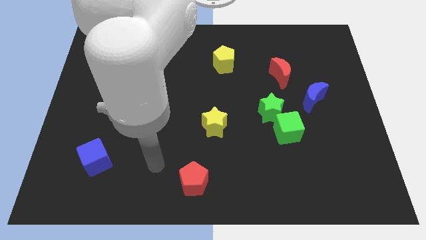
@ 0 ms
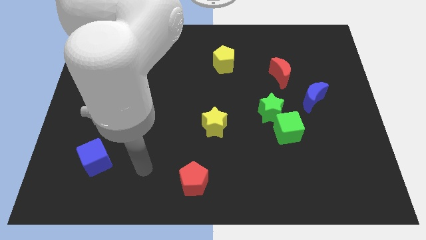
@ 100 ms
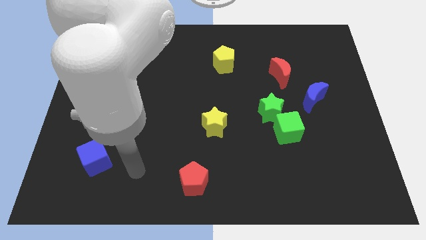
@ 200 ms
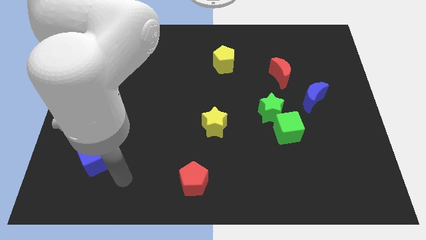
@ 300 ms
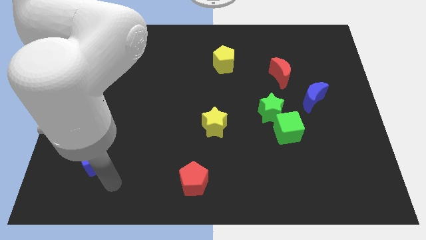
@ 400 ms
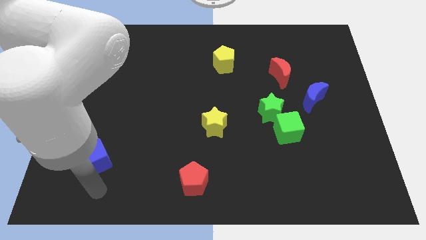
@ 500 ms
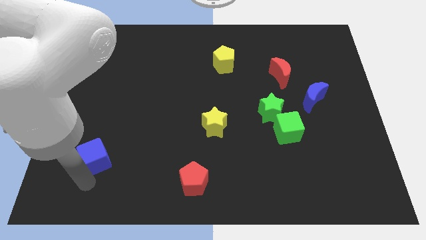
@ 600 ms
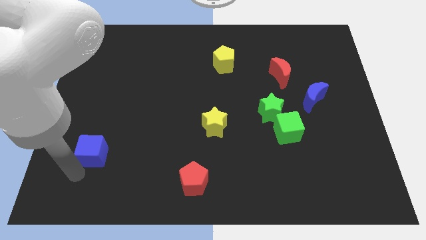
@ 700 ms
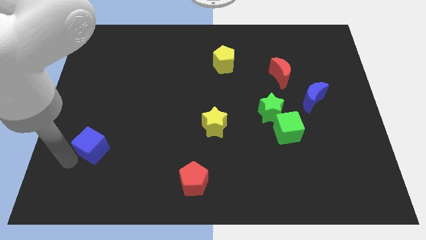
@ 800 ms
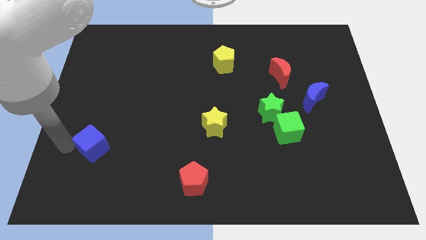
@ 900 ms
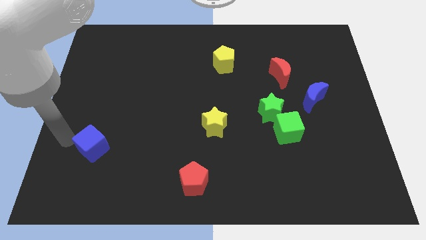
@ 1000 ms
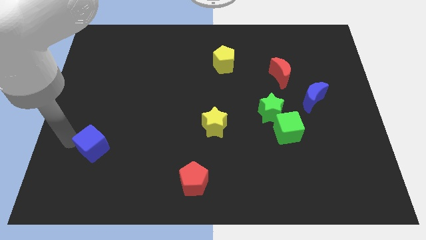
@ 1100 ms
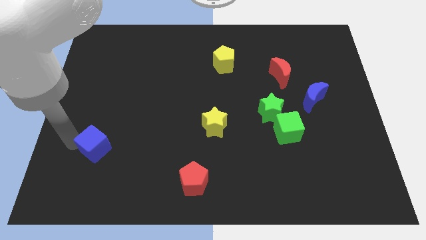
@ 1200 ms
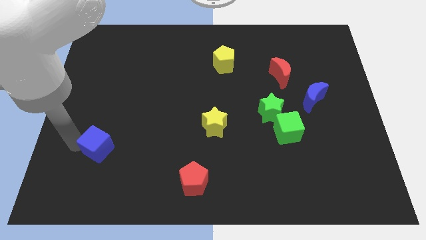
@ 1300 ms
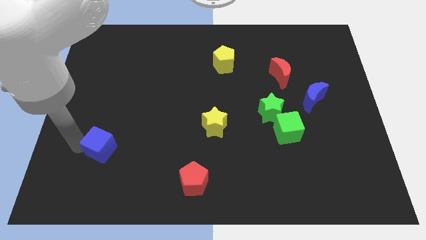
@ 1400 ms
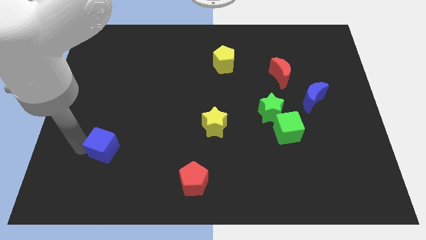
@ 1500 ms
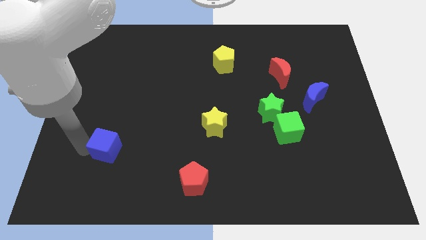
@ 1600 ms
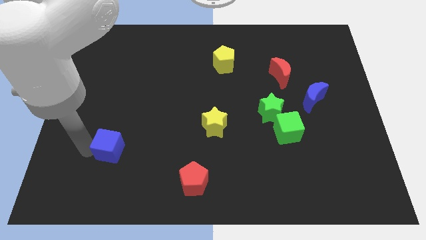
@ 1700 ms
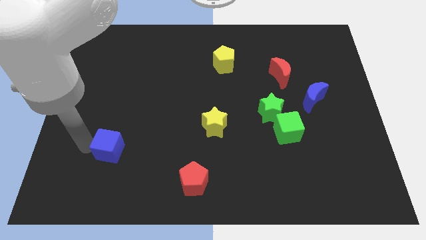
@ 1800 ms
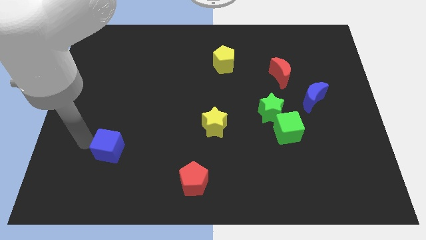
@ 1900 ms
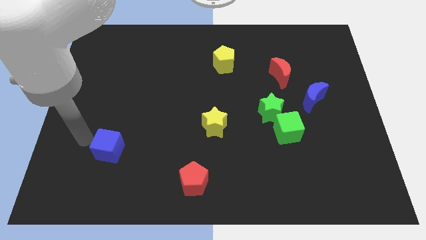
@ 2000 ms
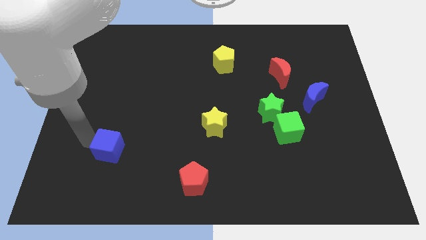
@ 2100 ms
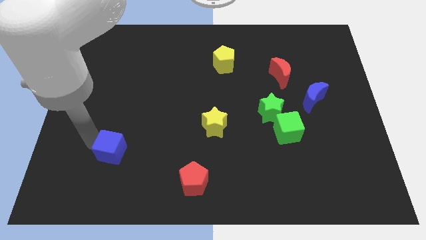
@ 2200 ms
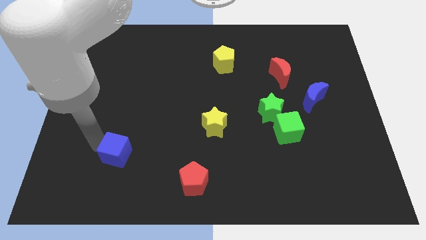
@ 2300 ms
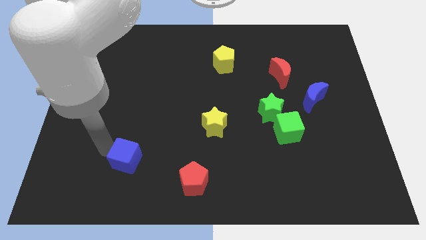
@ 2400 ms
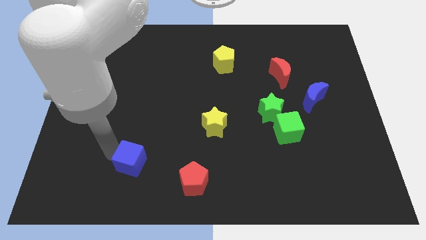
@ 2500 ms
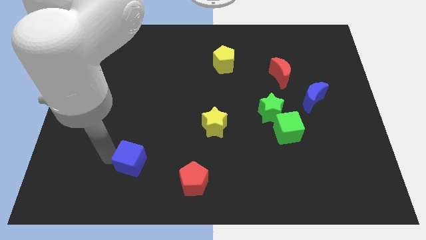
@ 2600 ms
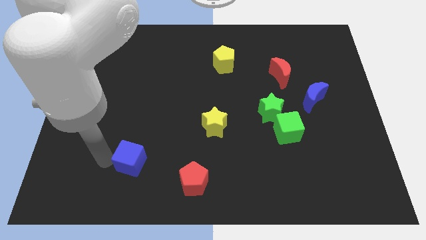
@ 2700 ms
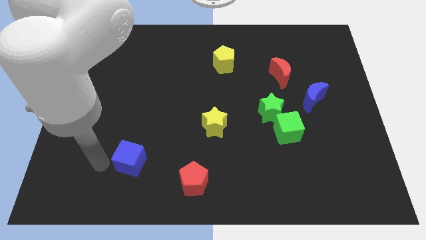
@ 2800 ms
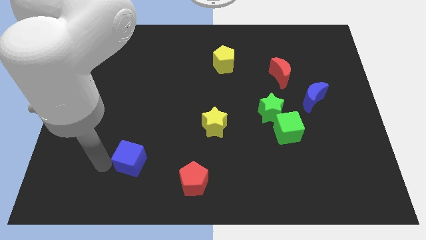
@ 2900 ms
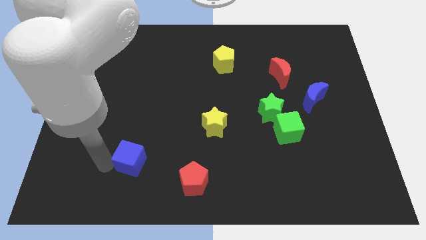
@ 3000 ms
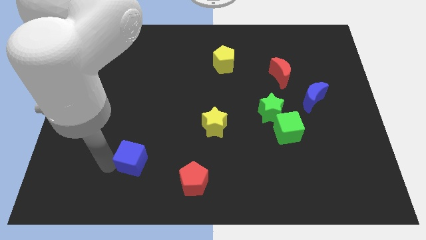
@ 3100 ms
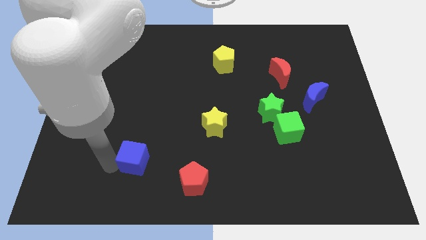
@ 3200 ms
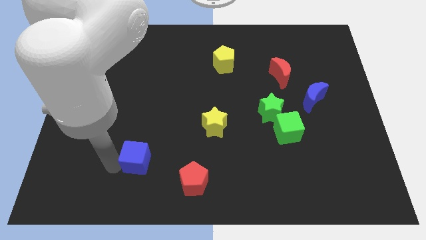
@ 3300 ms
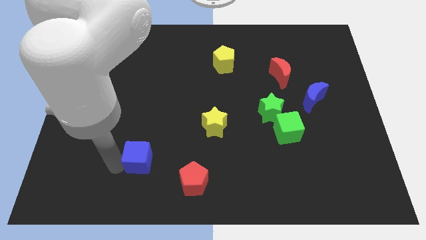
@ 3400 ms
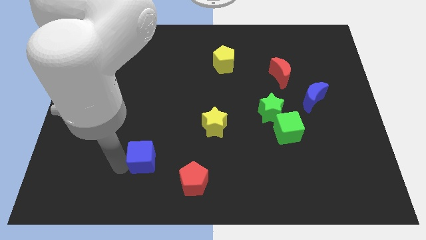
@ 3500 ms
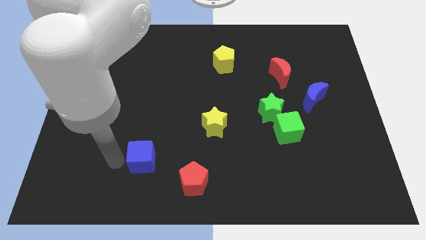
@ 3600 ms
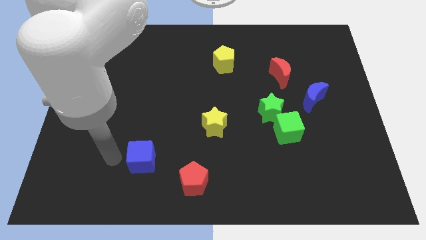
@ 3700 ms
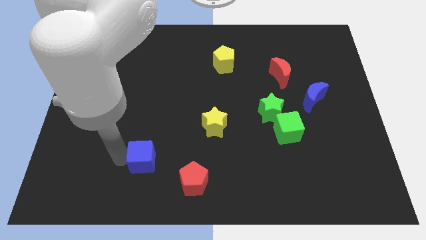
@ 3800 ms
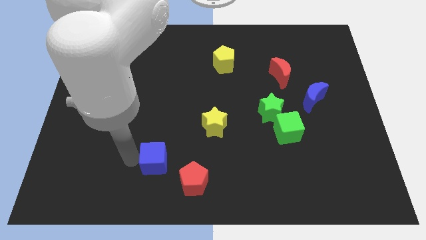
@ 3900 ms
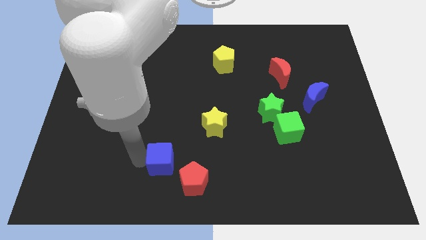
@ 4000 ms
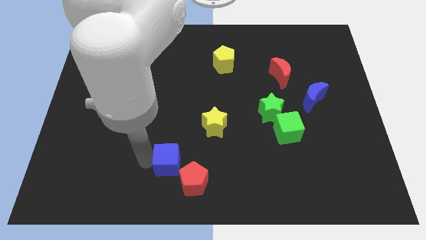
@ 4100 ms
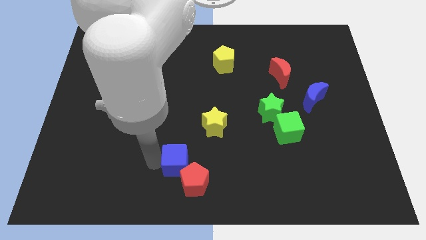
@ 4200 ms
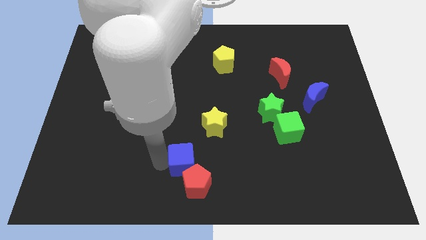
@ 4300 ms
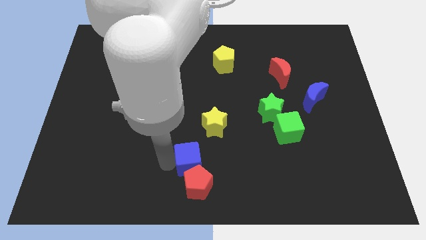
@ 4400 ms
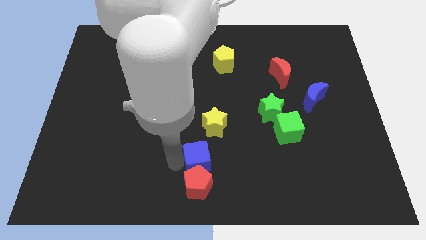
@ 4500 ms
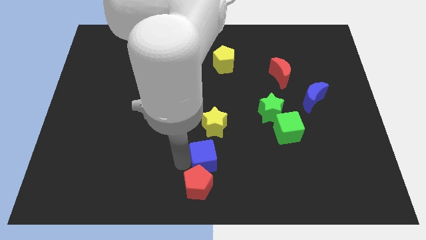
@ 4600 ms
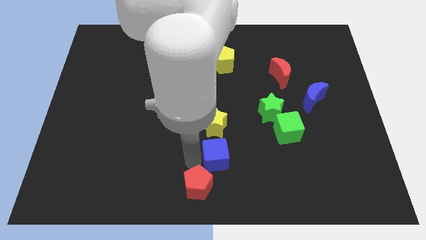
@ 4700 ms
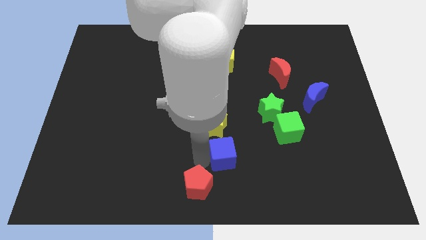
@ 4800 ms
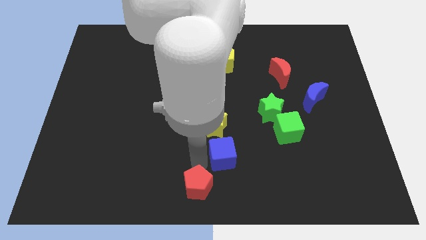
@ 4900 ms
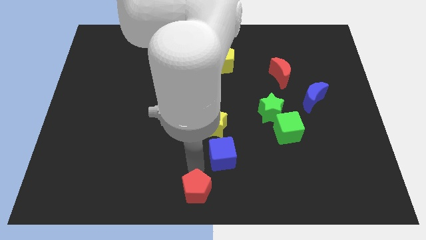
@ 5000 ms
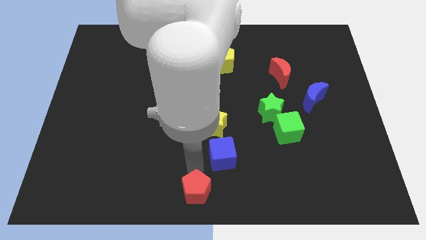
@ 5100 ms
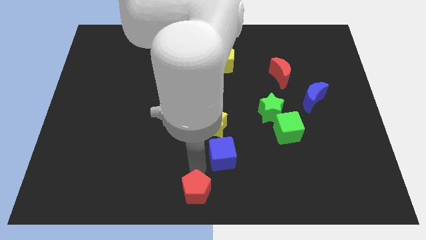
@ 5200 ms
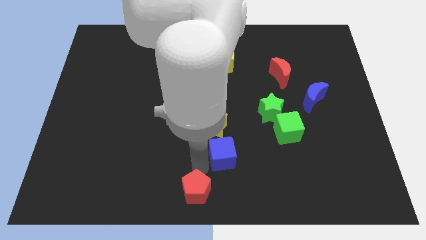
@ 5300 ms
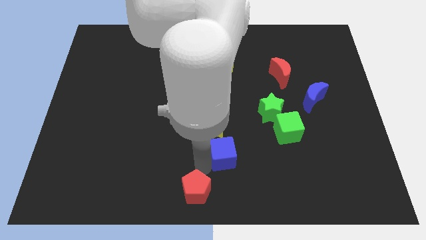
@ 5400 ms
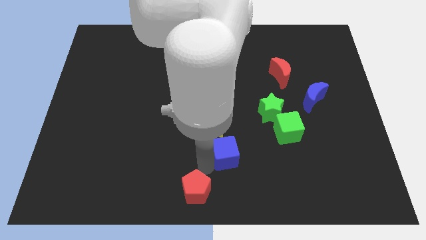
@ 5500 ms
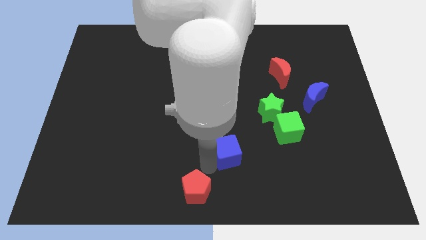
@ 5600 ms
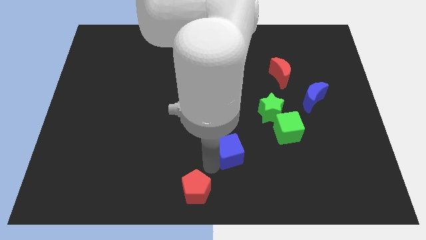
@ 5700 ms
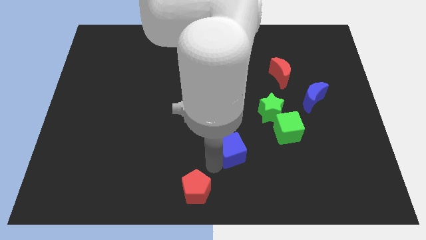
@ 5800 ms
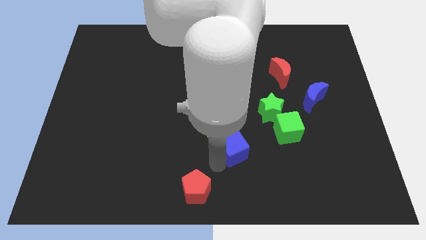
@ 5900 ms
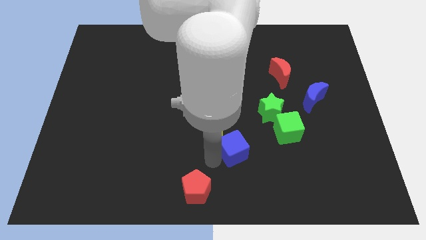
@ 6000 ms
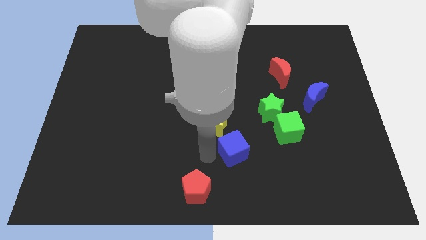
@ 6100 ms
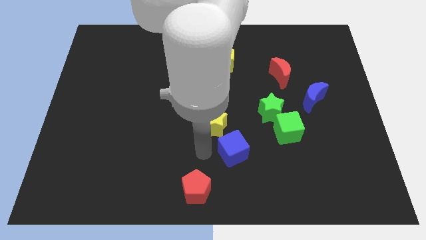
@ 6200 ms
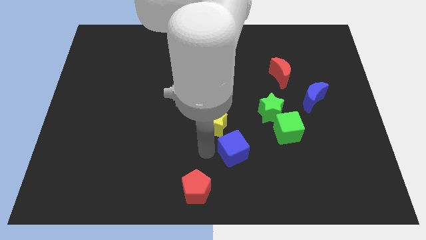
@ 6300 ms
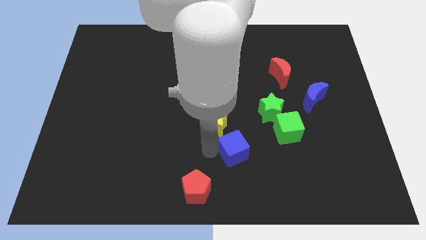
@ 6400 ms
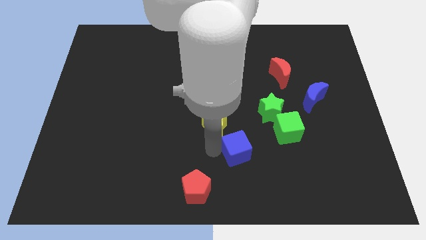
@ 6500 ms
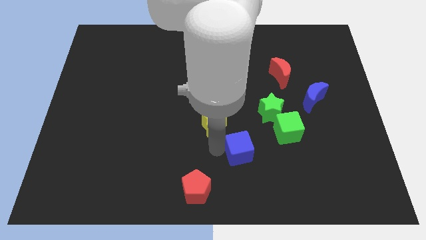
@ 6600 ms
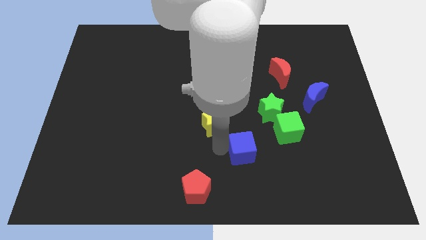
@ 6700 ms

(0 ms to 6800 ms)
push the blue cube to the bottom left of the green cube

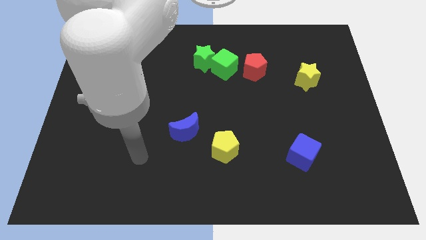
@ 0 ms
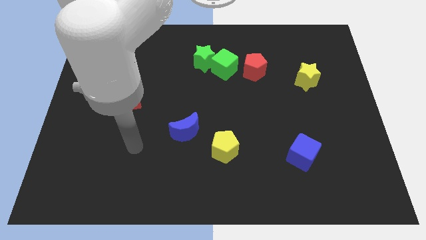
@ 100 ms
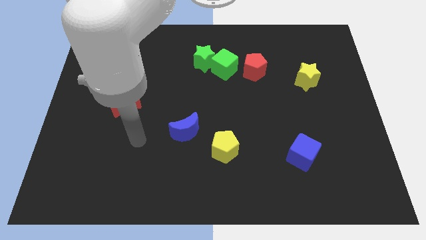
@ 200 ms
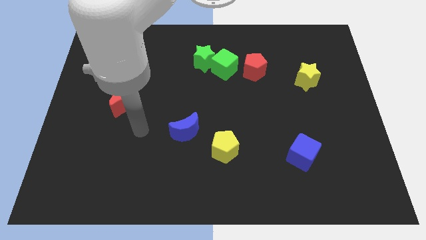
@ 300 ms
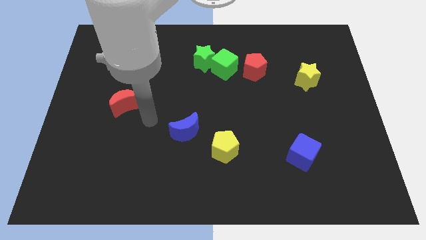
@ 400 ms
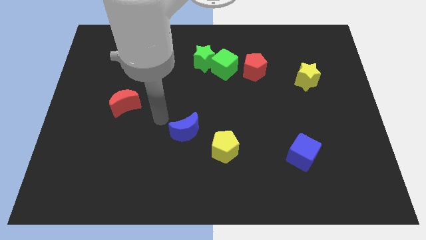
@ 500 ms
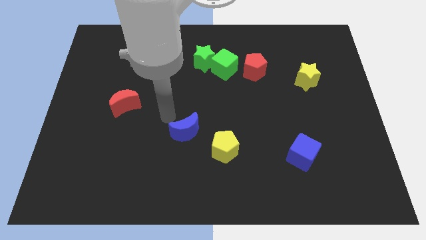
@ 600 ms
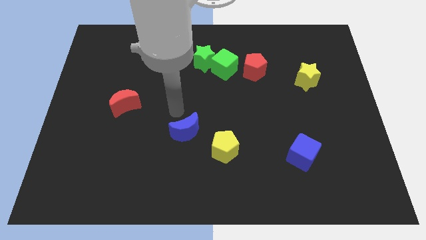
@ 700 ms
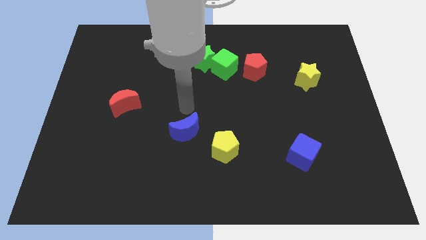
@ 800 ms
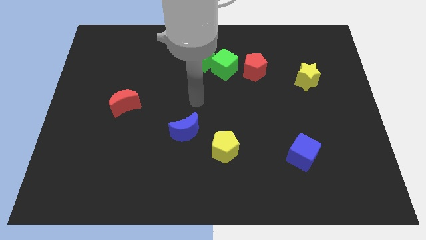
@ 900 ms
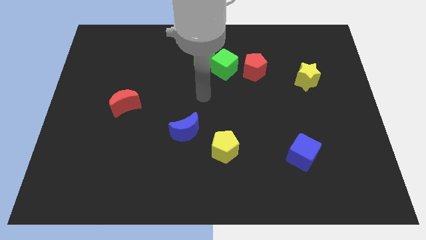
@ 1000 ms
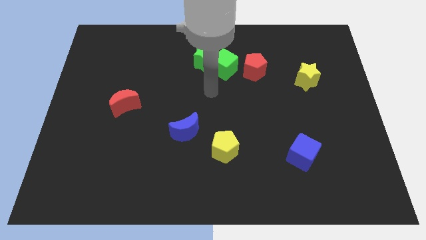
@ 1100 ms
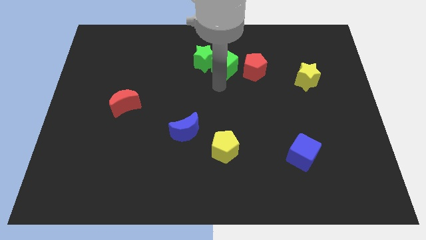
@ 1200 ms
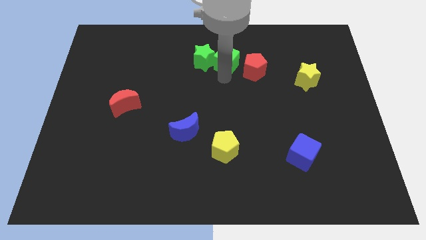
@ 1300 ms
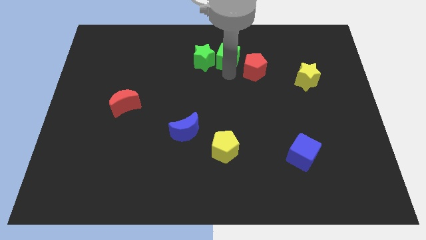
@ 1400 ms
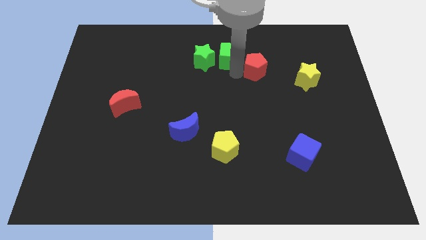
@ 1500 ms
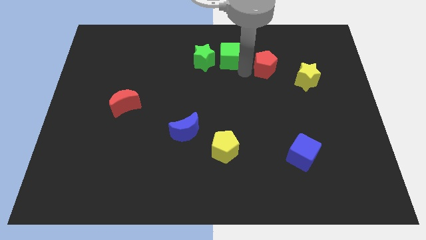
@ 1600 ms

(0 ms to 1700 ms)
move the red pentagon diagonally up and to the left of the yellow star
